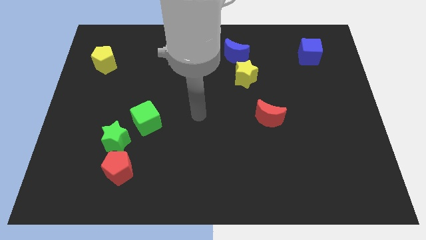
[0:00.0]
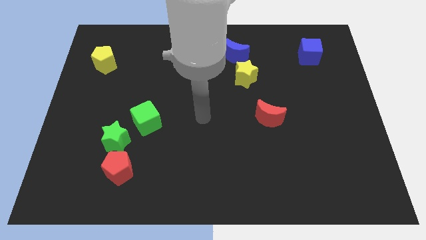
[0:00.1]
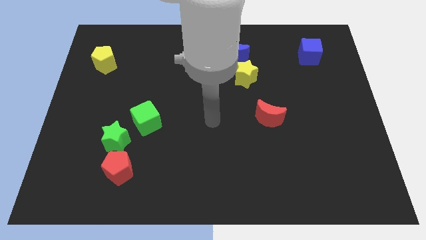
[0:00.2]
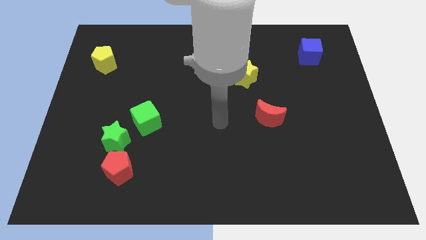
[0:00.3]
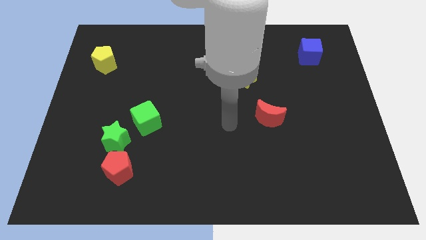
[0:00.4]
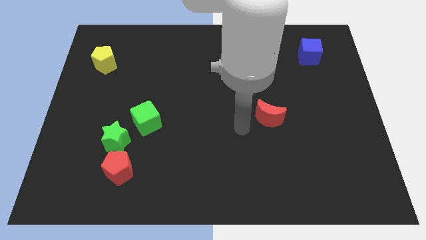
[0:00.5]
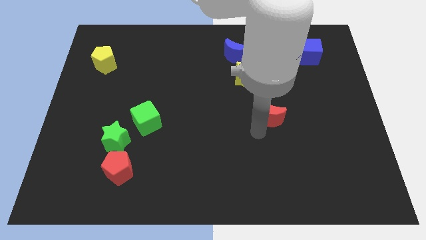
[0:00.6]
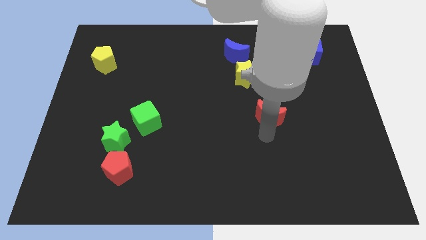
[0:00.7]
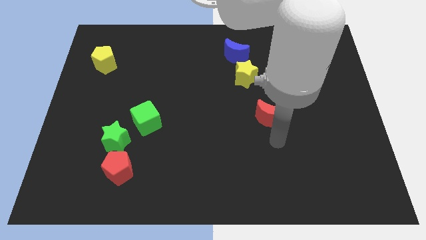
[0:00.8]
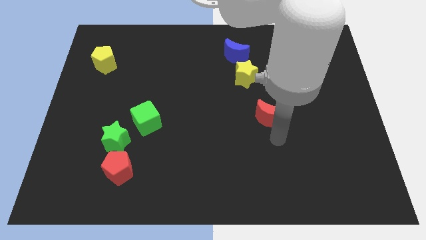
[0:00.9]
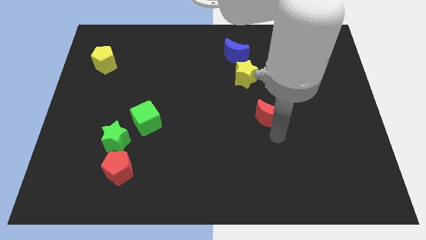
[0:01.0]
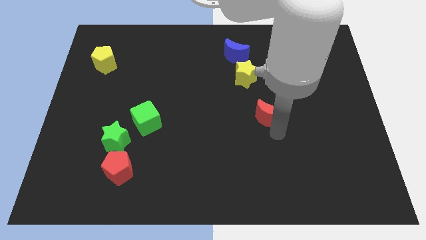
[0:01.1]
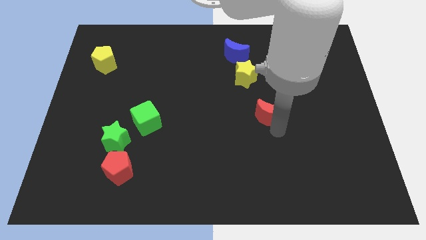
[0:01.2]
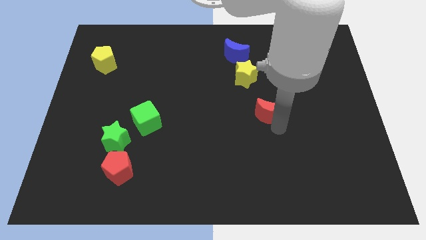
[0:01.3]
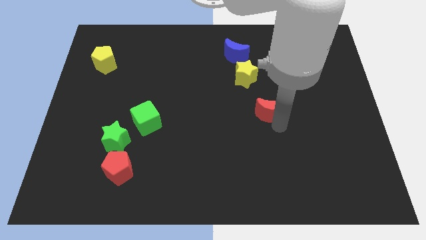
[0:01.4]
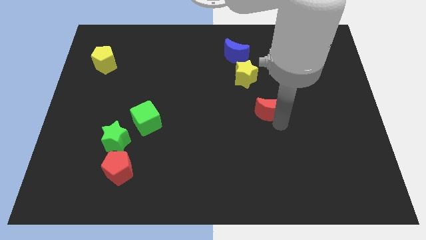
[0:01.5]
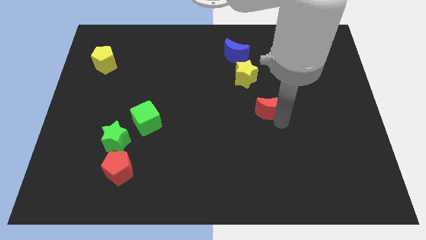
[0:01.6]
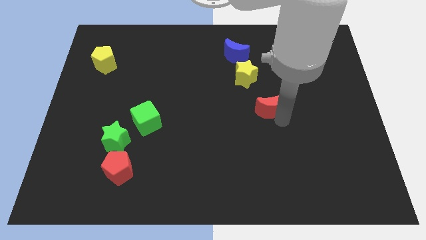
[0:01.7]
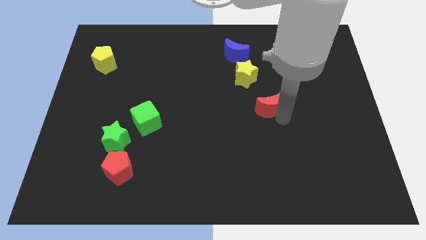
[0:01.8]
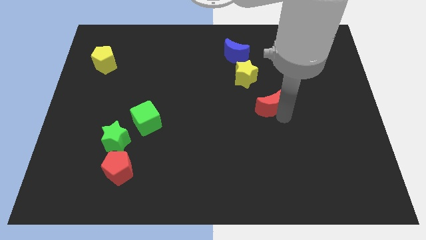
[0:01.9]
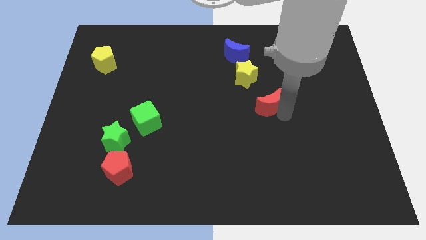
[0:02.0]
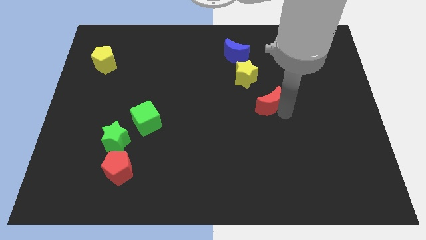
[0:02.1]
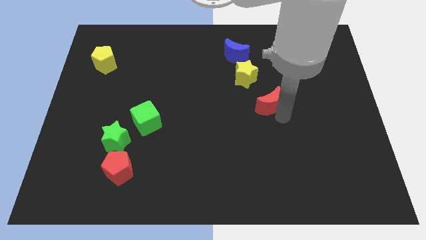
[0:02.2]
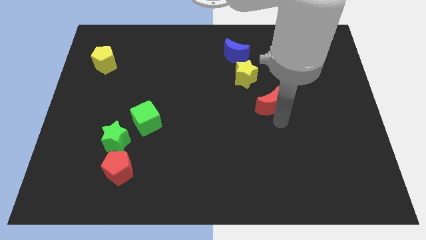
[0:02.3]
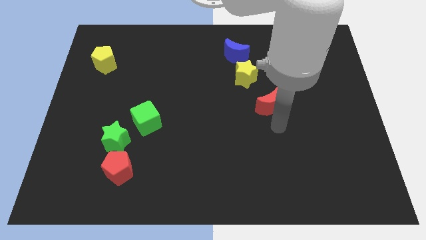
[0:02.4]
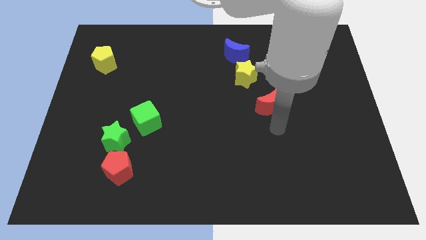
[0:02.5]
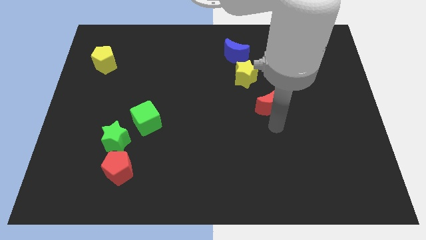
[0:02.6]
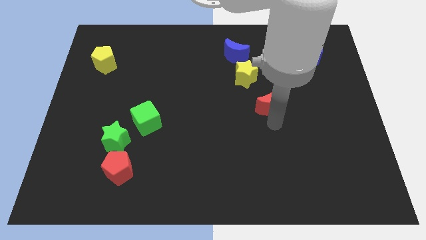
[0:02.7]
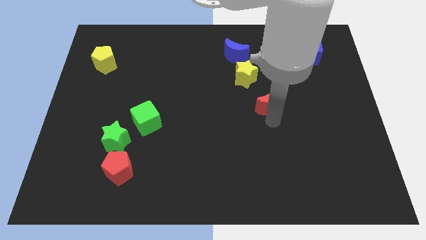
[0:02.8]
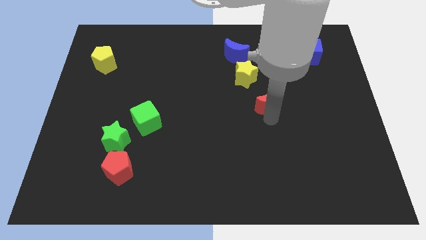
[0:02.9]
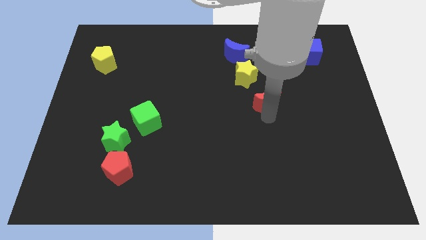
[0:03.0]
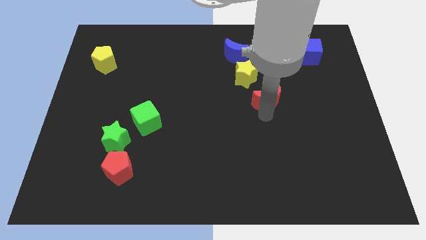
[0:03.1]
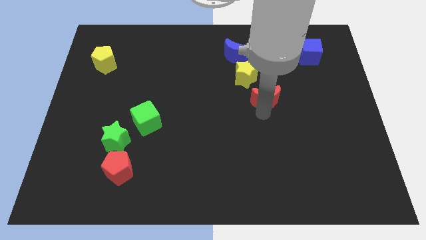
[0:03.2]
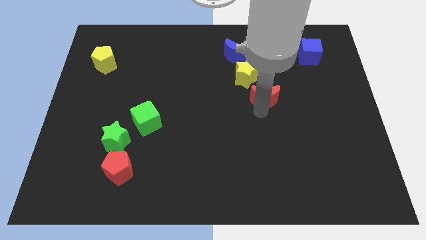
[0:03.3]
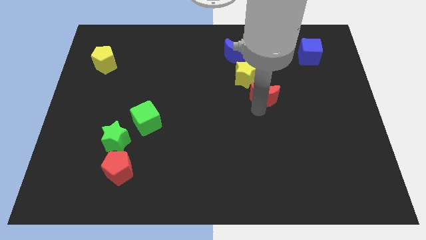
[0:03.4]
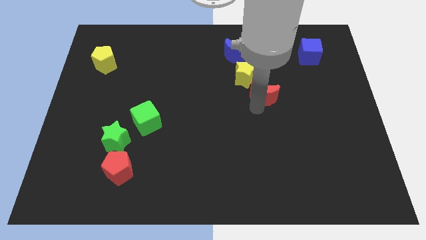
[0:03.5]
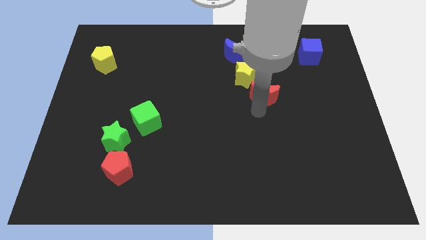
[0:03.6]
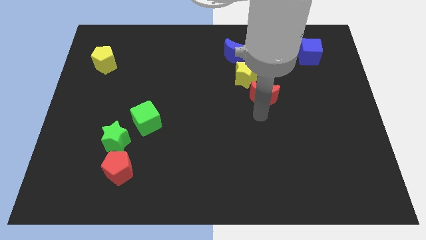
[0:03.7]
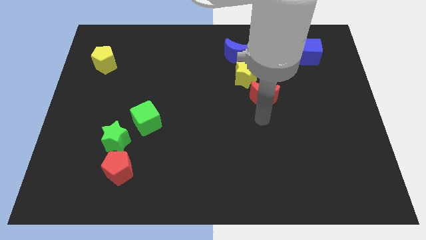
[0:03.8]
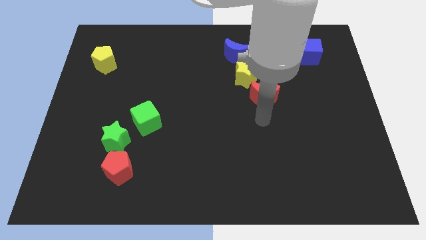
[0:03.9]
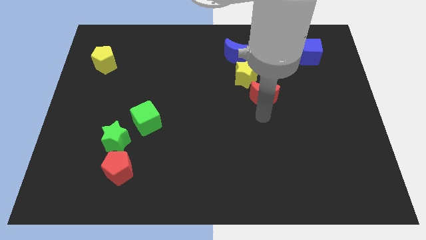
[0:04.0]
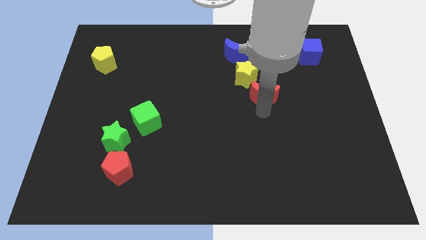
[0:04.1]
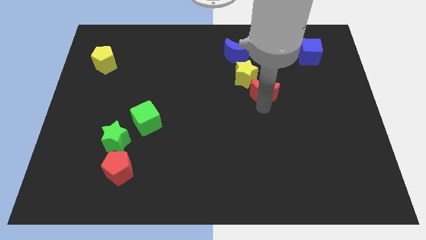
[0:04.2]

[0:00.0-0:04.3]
slide the red moon upwards somewhat

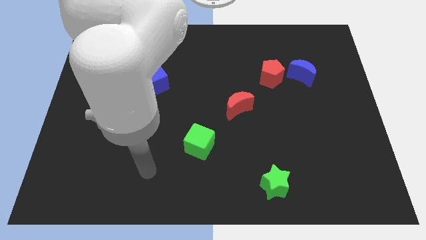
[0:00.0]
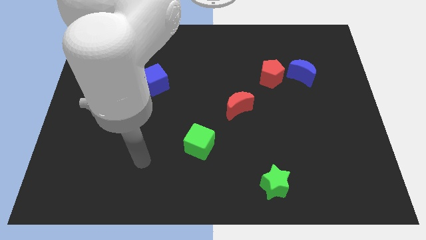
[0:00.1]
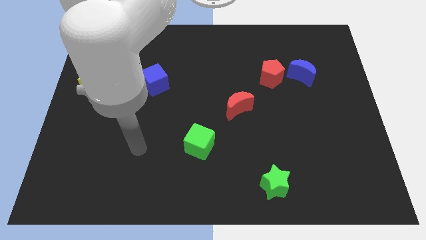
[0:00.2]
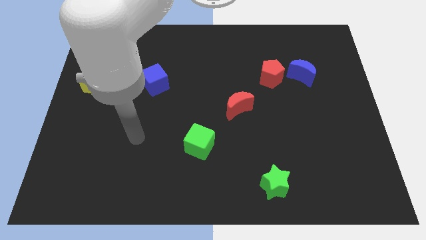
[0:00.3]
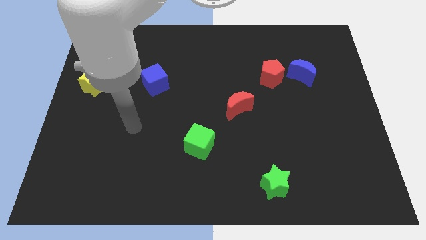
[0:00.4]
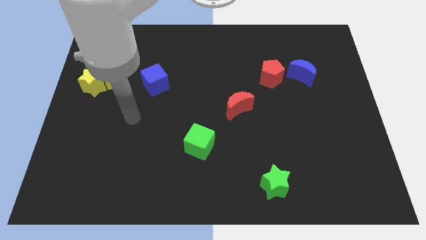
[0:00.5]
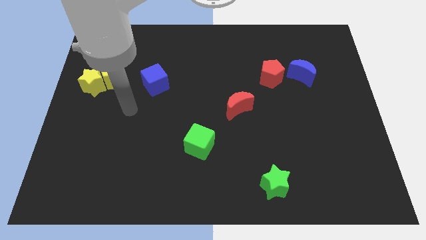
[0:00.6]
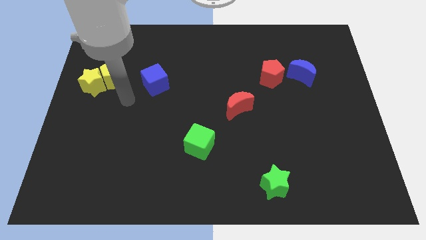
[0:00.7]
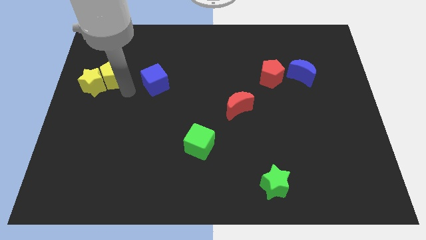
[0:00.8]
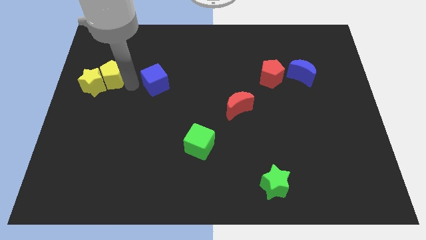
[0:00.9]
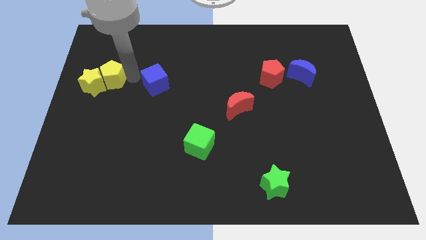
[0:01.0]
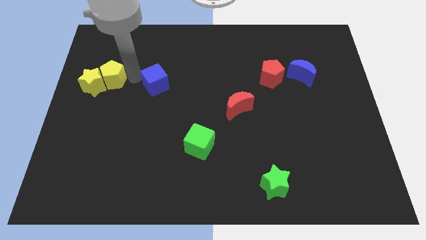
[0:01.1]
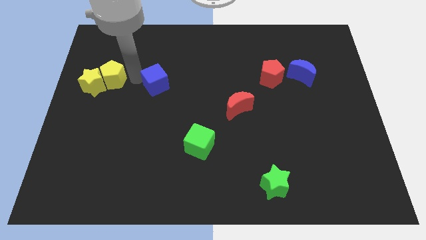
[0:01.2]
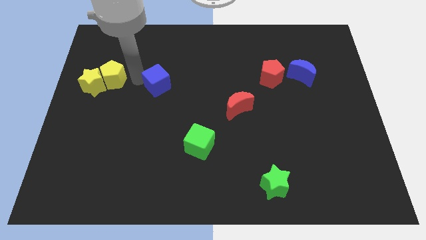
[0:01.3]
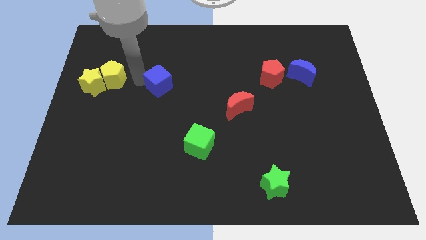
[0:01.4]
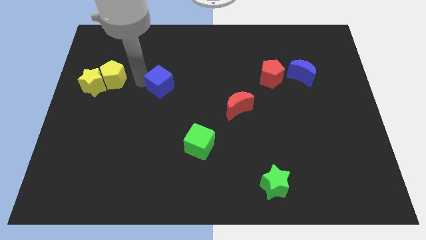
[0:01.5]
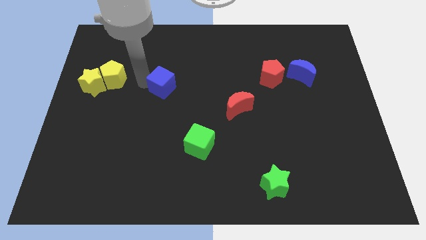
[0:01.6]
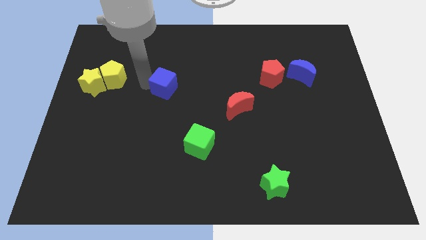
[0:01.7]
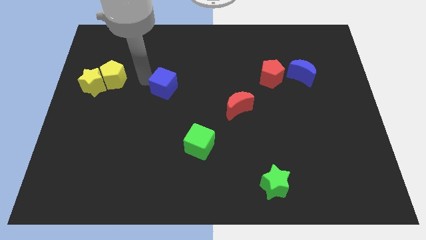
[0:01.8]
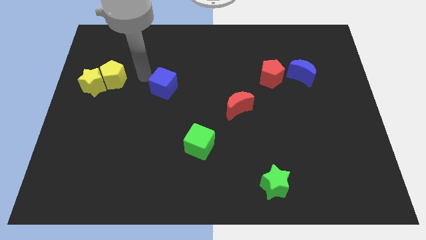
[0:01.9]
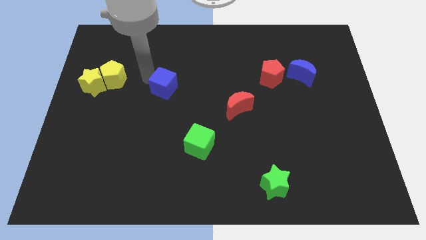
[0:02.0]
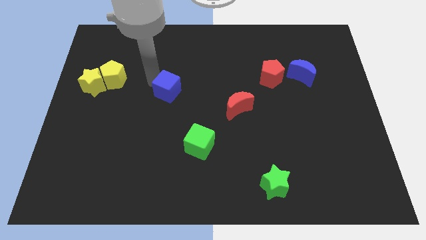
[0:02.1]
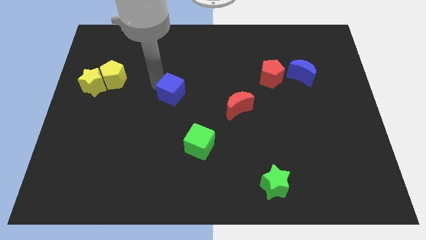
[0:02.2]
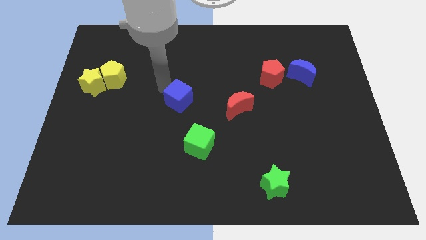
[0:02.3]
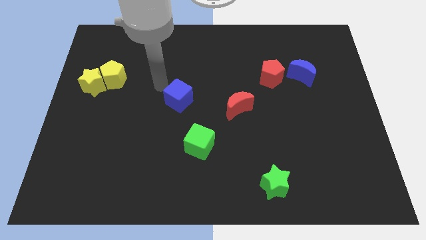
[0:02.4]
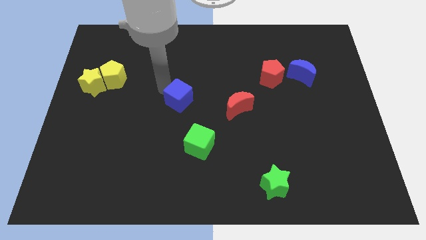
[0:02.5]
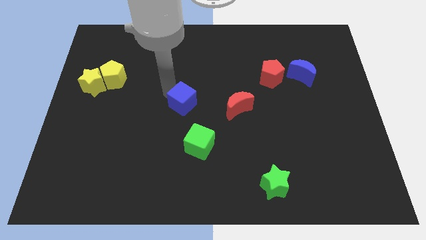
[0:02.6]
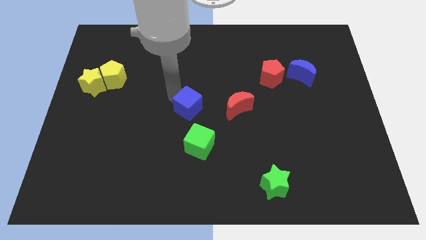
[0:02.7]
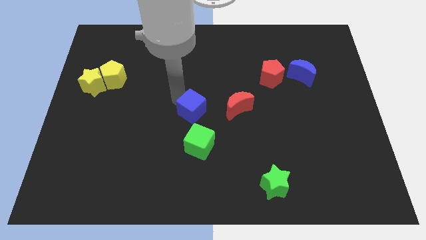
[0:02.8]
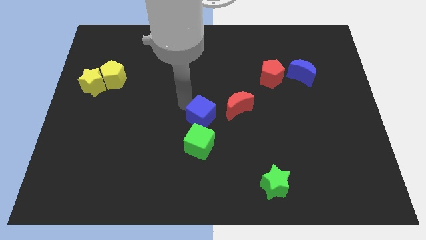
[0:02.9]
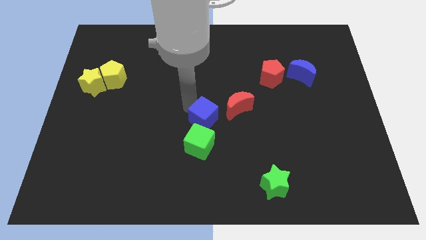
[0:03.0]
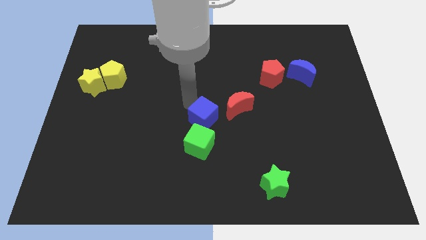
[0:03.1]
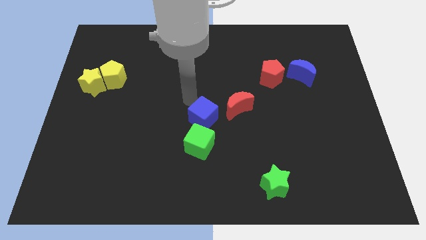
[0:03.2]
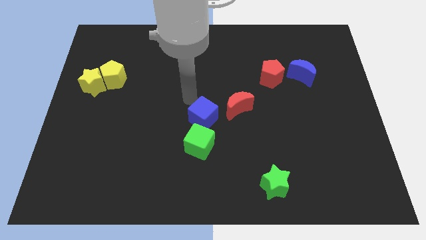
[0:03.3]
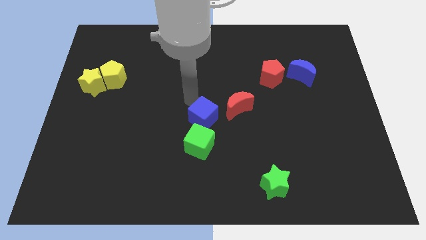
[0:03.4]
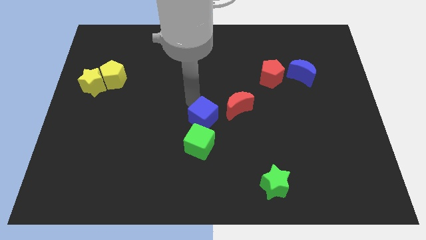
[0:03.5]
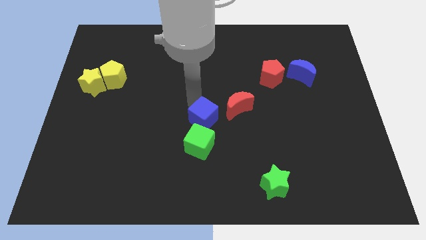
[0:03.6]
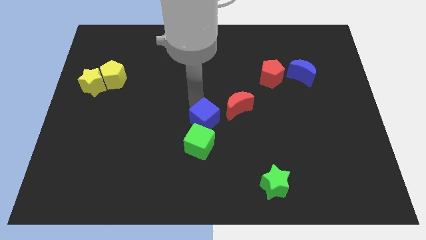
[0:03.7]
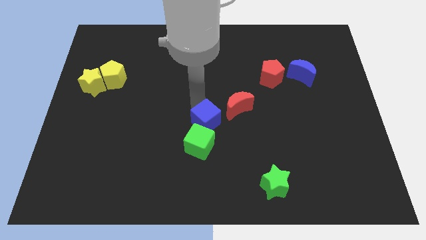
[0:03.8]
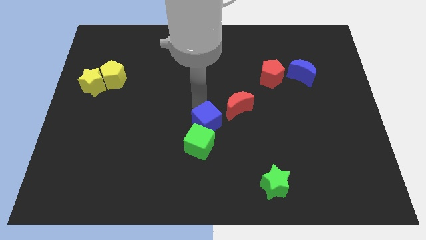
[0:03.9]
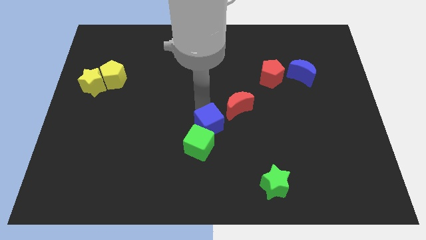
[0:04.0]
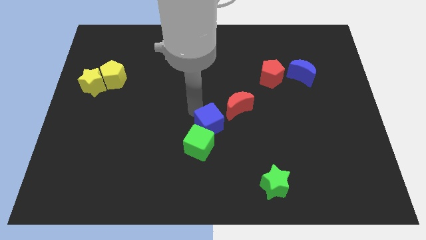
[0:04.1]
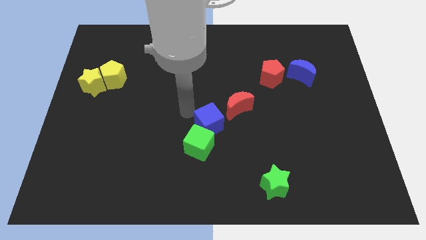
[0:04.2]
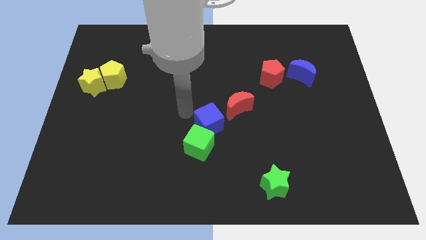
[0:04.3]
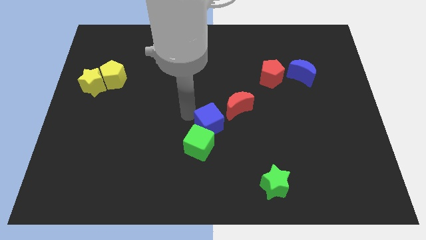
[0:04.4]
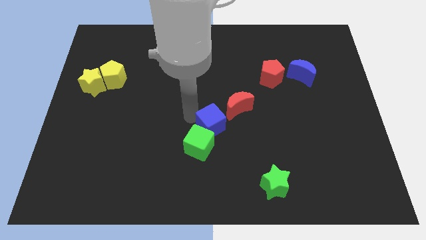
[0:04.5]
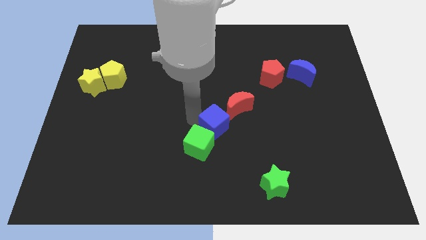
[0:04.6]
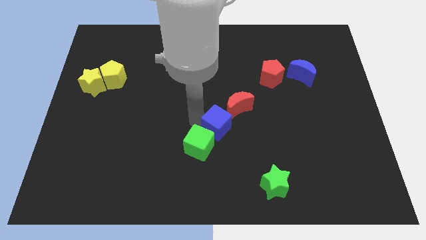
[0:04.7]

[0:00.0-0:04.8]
push the blue cube downwards and right
